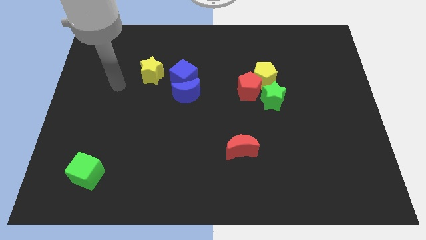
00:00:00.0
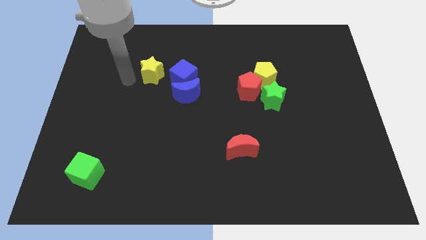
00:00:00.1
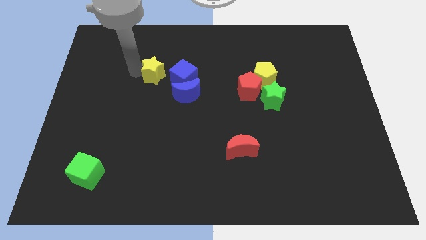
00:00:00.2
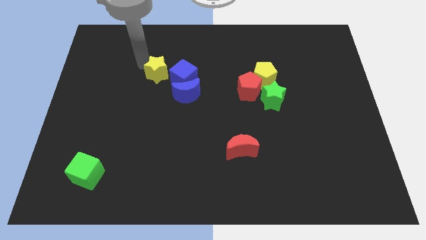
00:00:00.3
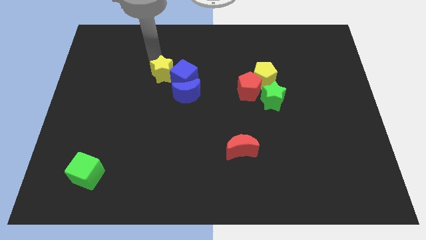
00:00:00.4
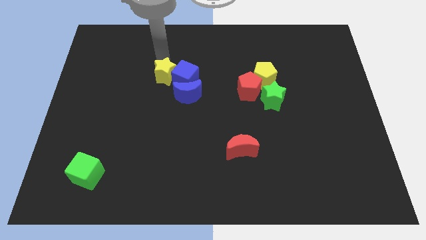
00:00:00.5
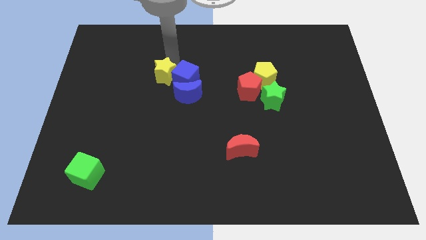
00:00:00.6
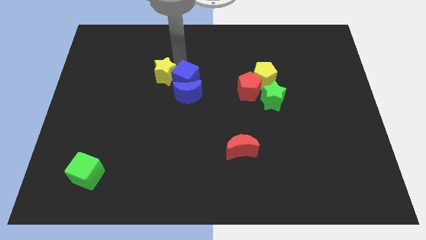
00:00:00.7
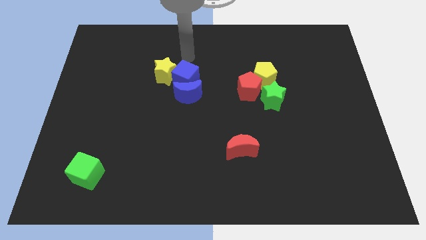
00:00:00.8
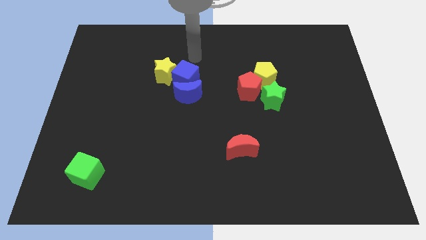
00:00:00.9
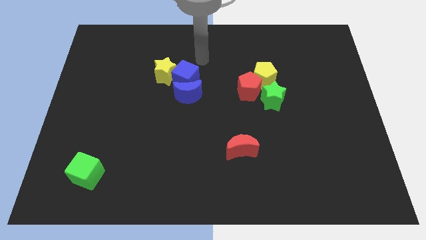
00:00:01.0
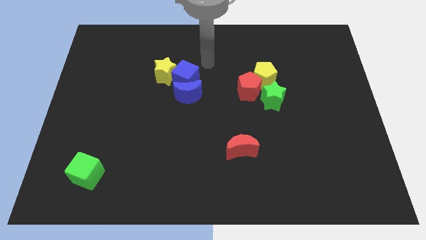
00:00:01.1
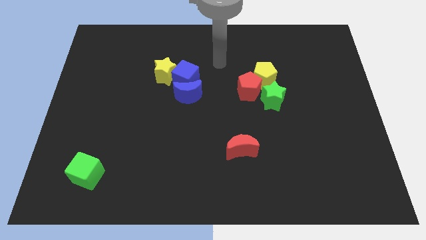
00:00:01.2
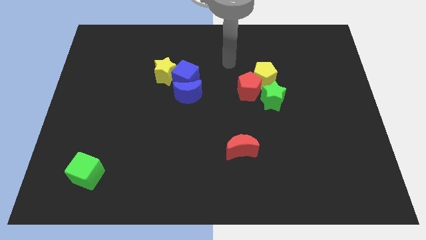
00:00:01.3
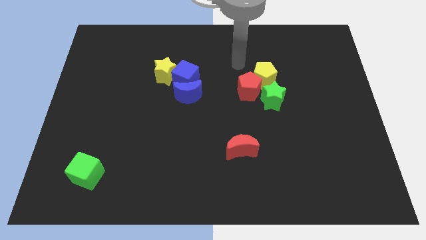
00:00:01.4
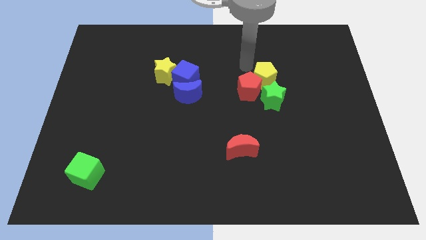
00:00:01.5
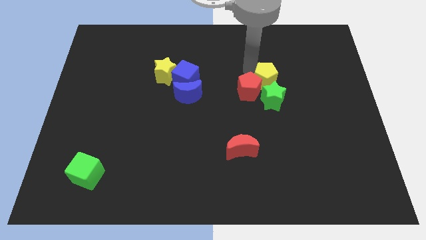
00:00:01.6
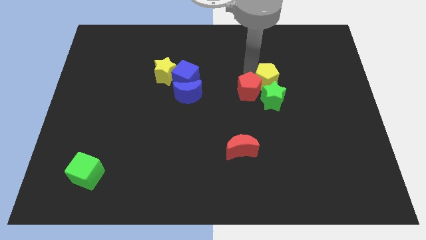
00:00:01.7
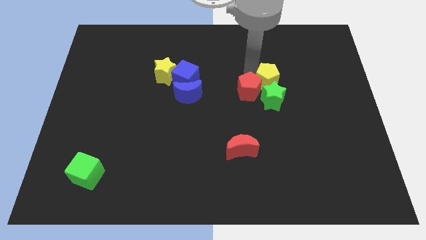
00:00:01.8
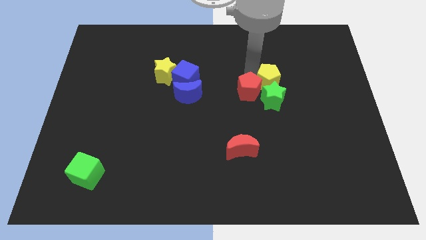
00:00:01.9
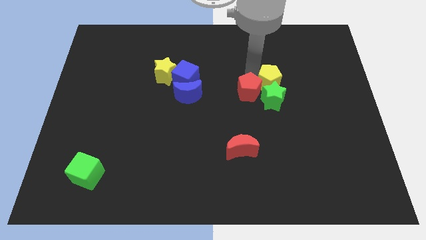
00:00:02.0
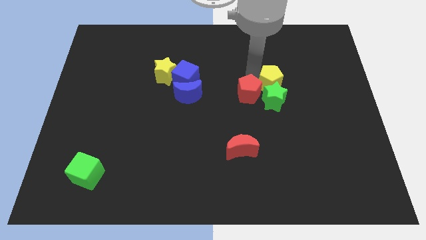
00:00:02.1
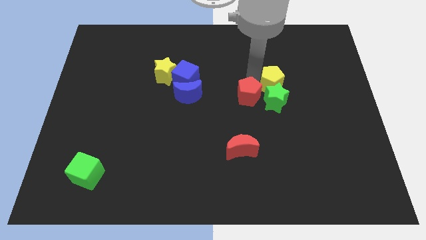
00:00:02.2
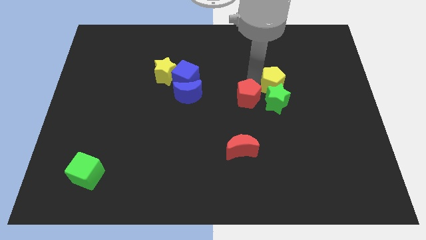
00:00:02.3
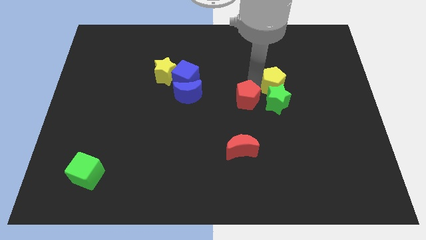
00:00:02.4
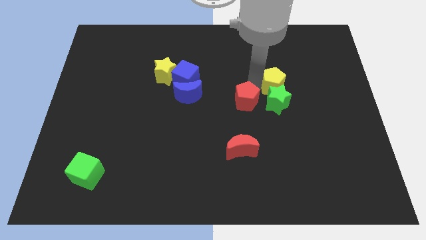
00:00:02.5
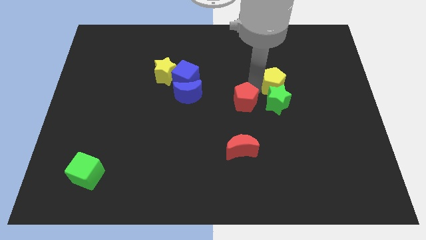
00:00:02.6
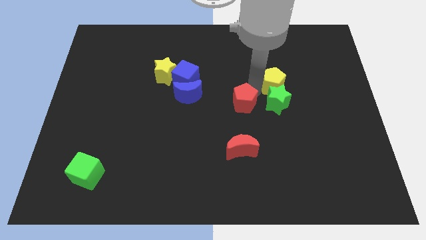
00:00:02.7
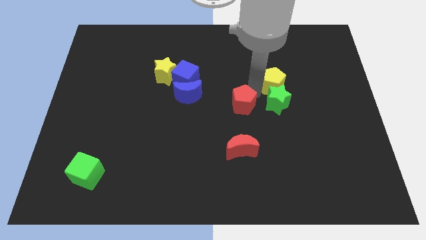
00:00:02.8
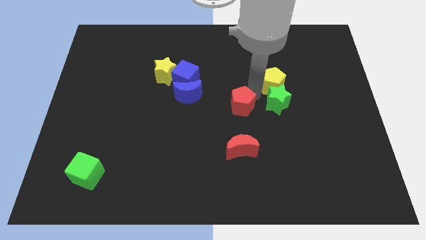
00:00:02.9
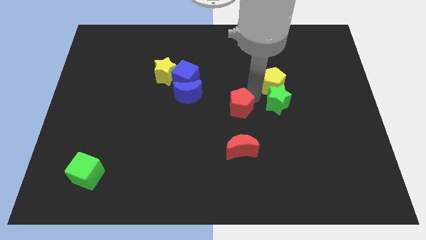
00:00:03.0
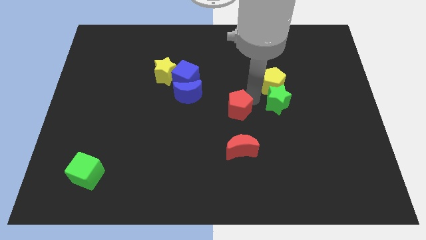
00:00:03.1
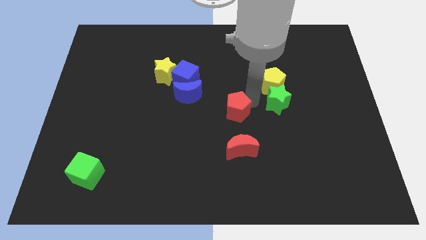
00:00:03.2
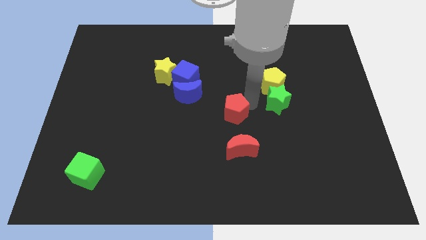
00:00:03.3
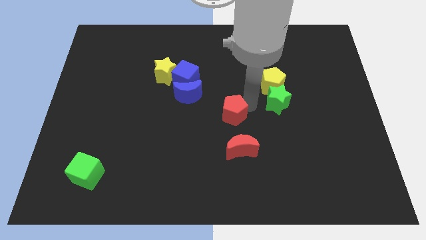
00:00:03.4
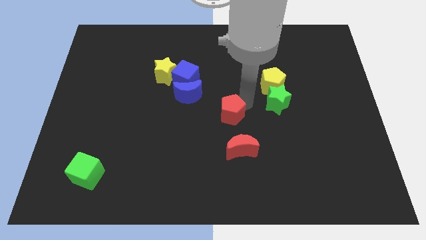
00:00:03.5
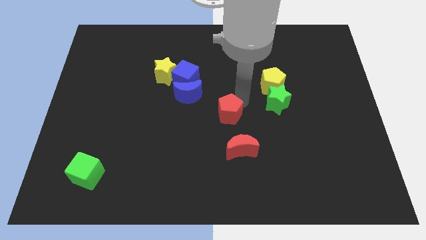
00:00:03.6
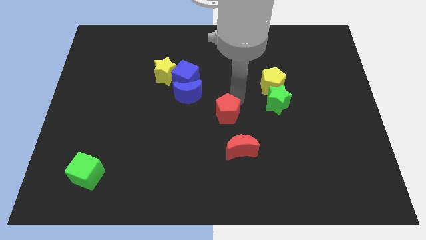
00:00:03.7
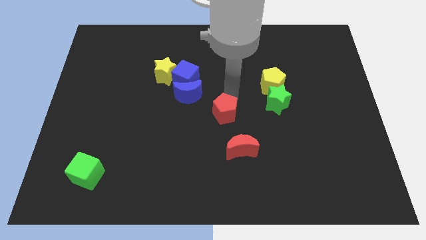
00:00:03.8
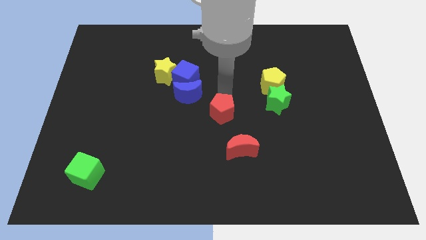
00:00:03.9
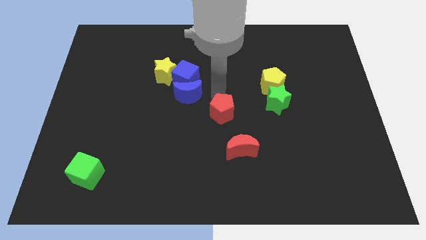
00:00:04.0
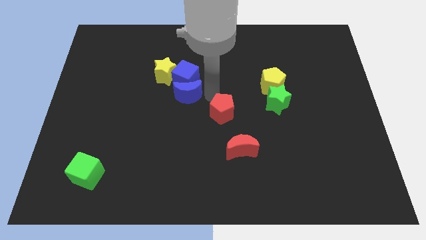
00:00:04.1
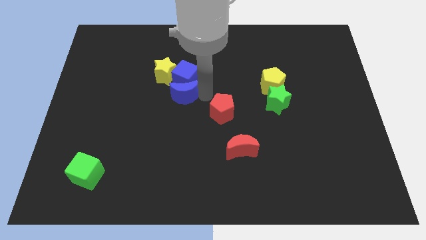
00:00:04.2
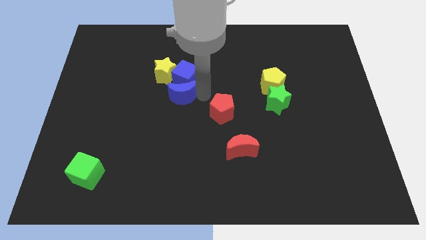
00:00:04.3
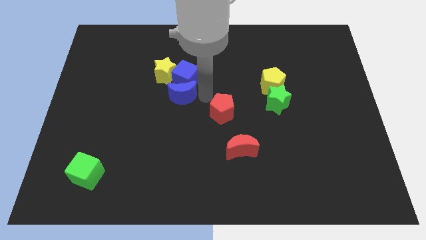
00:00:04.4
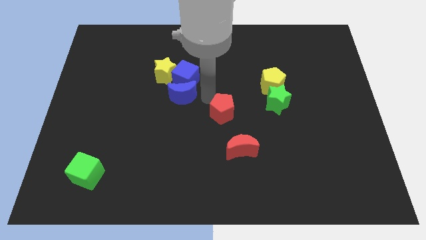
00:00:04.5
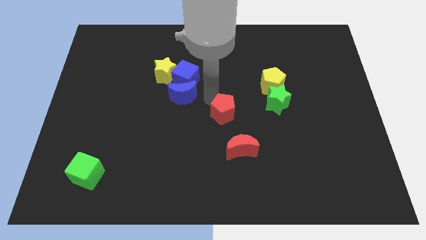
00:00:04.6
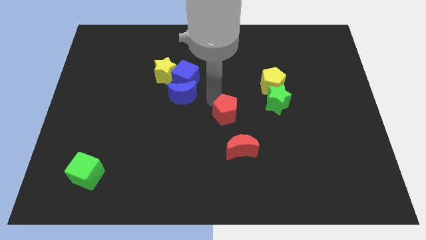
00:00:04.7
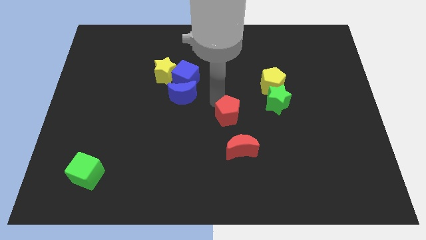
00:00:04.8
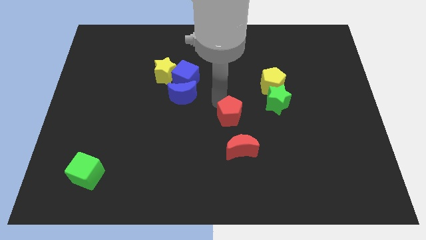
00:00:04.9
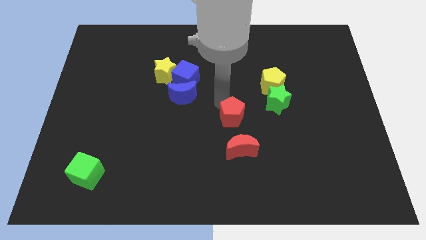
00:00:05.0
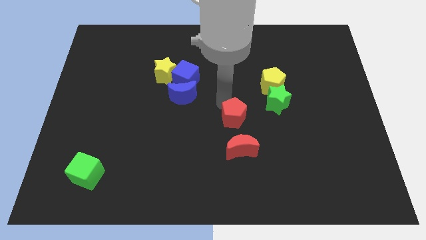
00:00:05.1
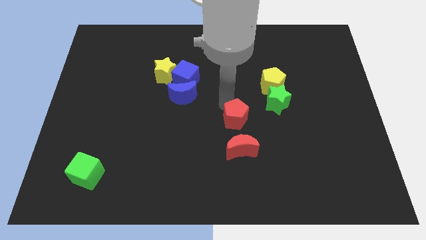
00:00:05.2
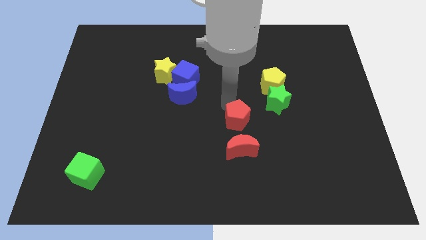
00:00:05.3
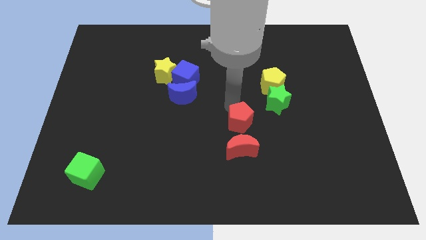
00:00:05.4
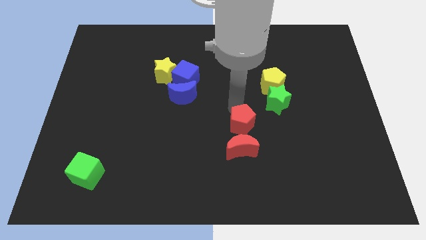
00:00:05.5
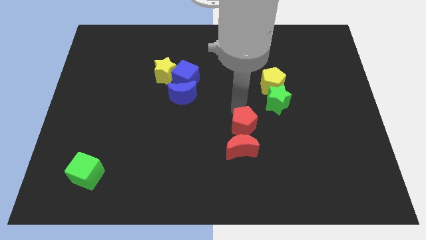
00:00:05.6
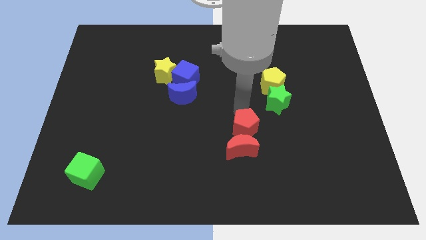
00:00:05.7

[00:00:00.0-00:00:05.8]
slide the red pentagon towards the red moon

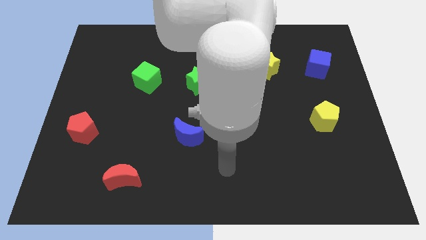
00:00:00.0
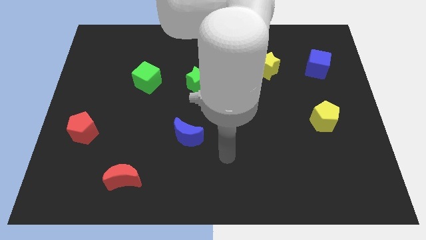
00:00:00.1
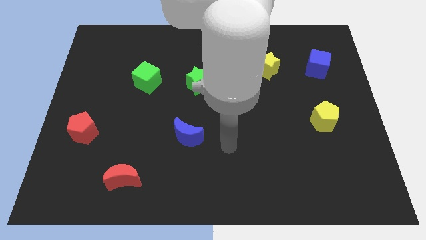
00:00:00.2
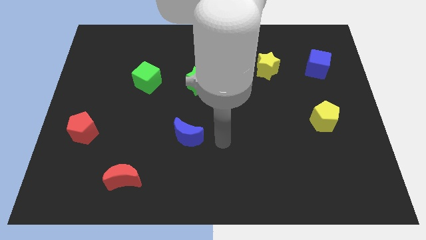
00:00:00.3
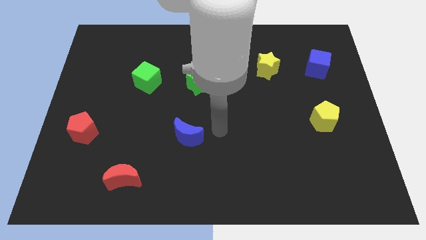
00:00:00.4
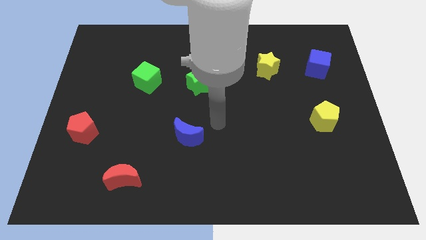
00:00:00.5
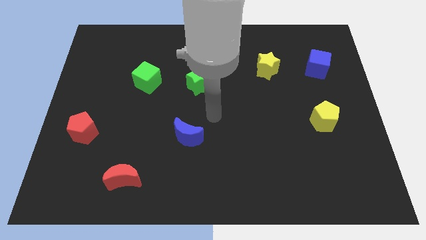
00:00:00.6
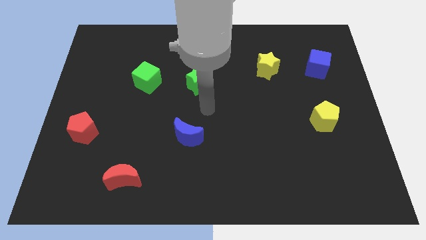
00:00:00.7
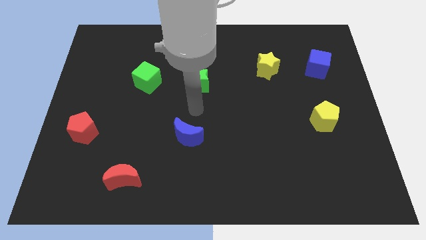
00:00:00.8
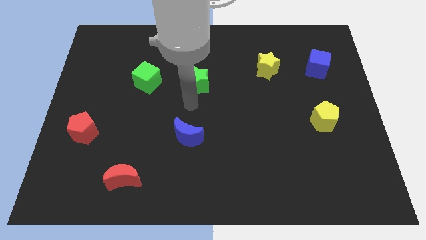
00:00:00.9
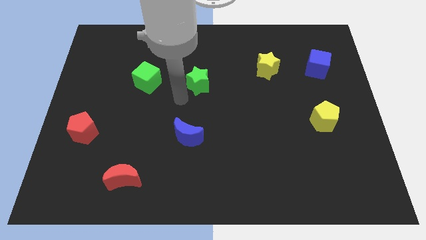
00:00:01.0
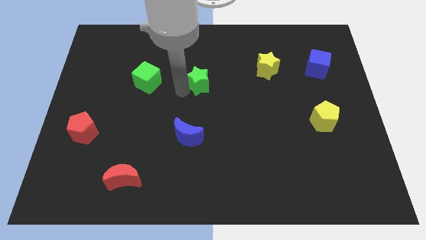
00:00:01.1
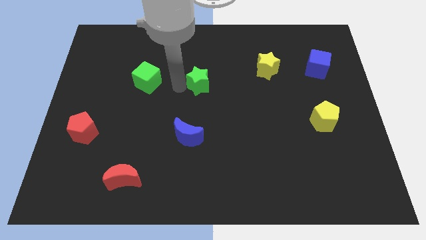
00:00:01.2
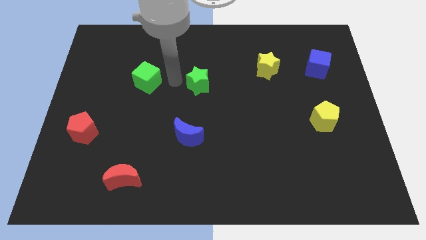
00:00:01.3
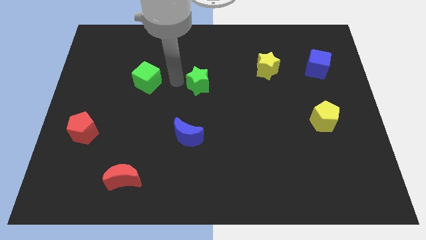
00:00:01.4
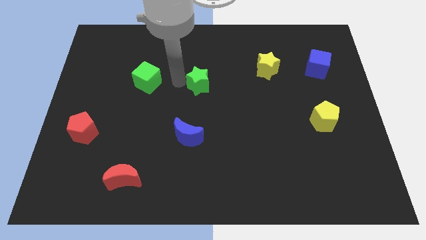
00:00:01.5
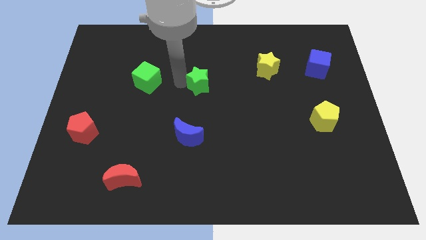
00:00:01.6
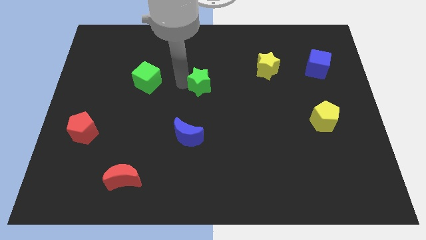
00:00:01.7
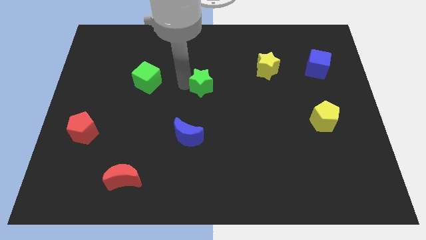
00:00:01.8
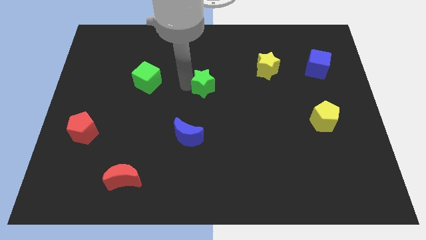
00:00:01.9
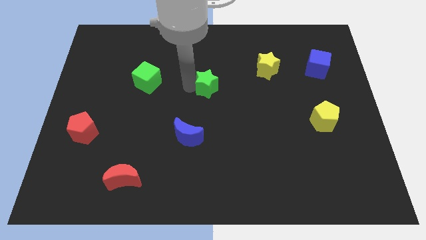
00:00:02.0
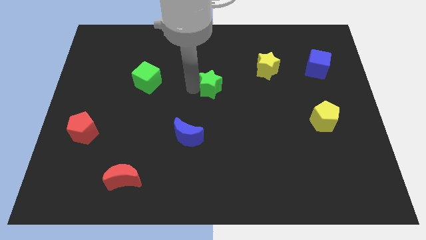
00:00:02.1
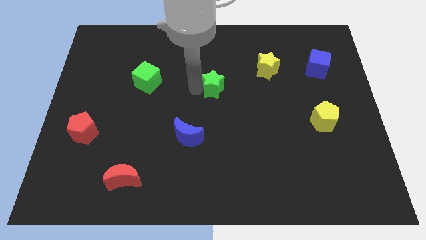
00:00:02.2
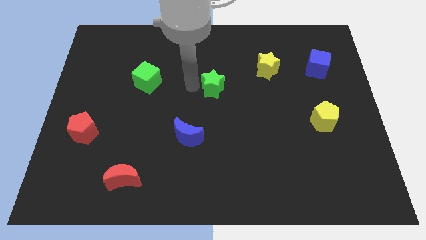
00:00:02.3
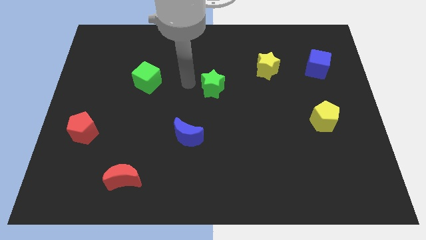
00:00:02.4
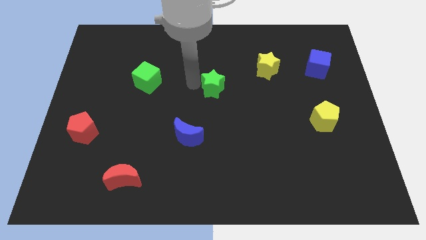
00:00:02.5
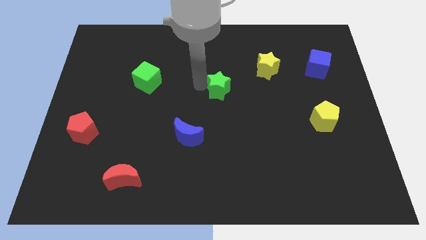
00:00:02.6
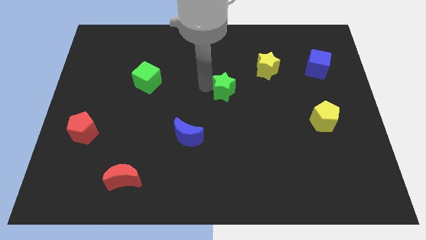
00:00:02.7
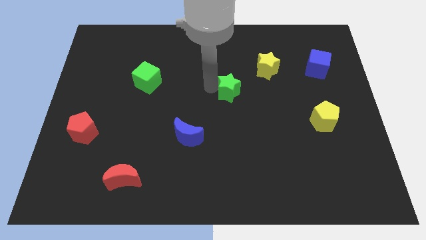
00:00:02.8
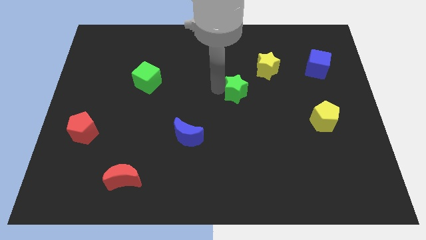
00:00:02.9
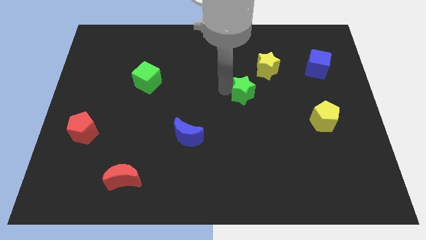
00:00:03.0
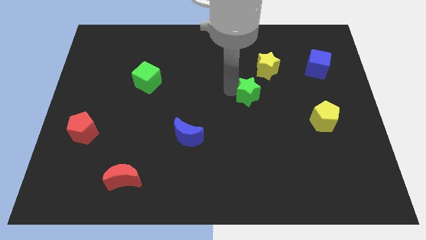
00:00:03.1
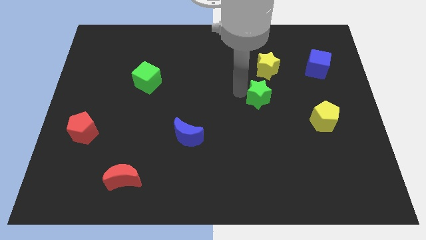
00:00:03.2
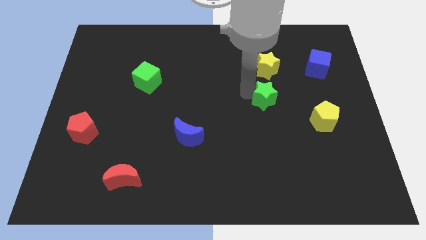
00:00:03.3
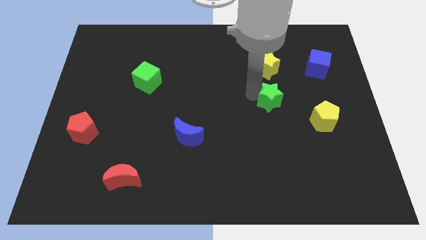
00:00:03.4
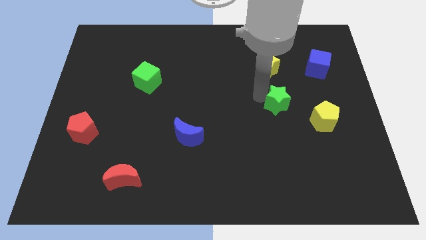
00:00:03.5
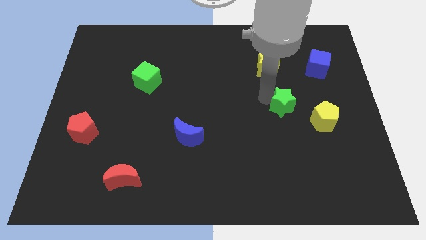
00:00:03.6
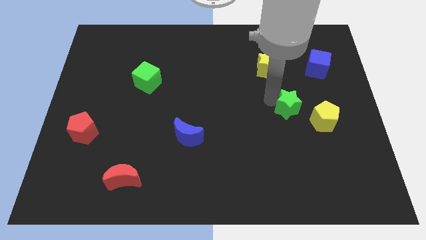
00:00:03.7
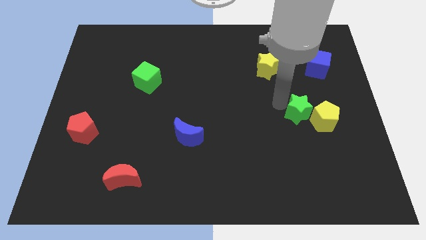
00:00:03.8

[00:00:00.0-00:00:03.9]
move the green star to the yellow pentagon
